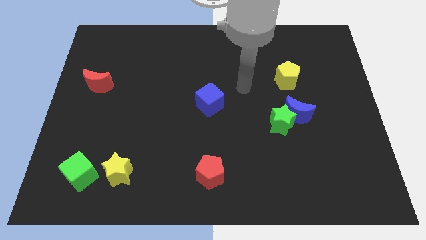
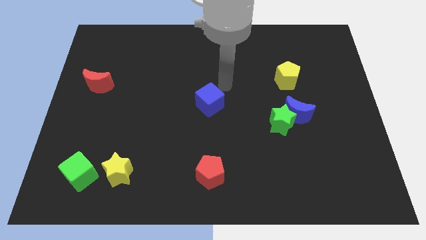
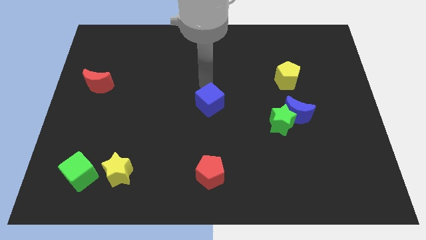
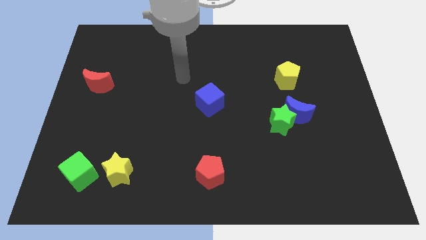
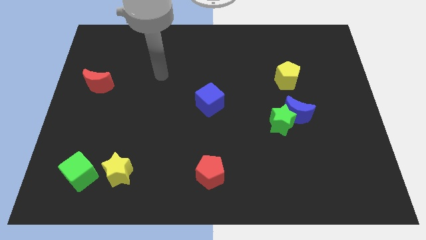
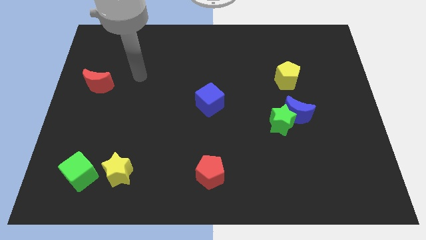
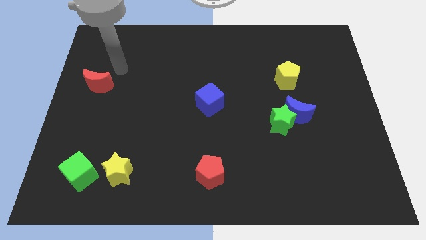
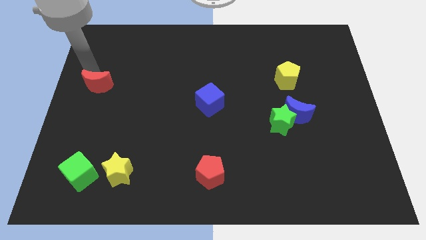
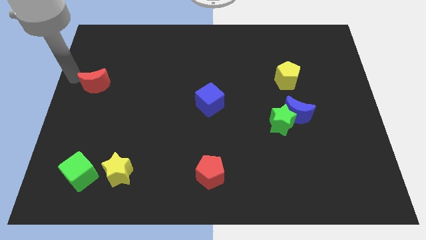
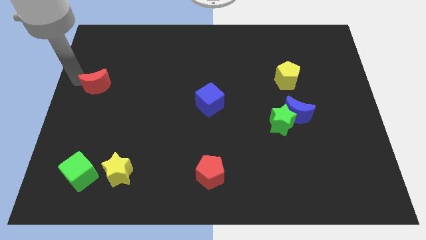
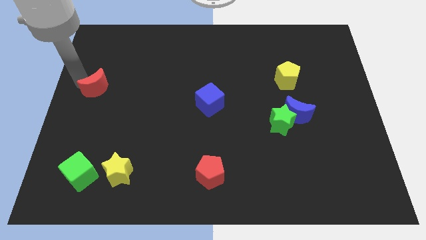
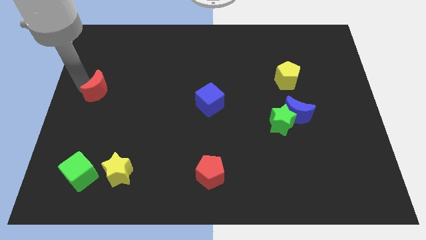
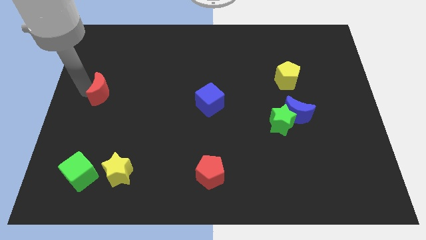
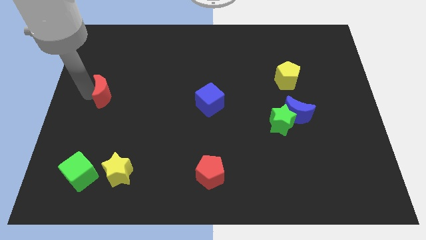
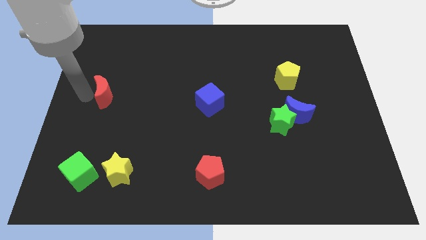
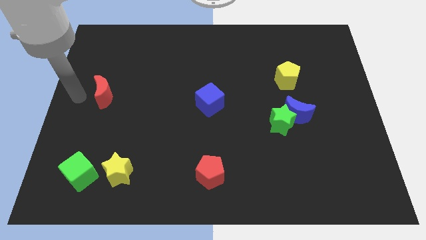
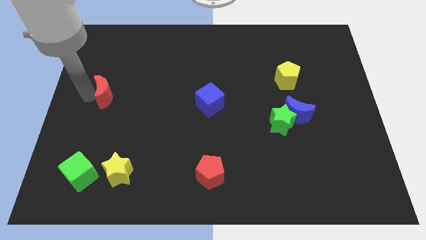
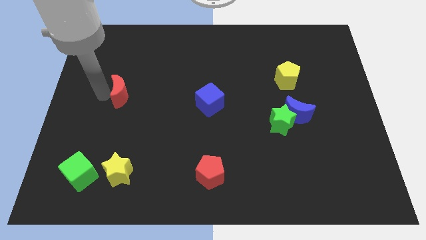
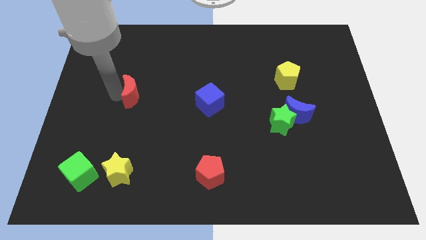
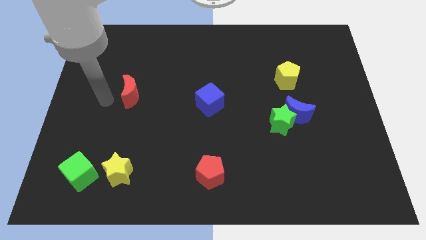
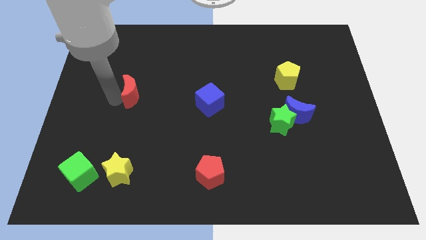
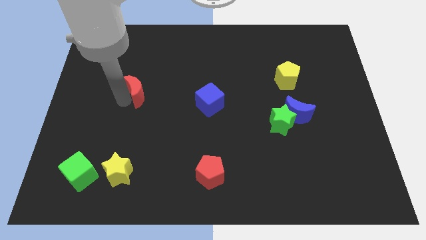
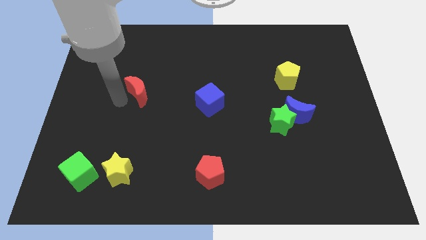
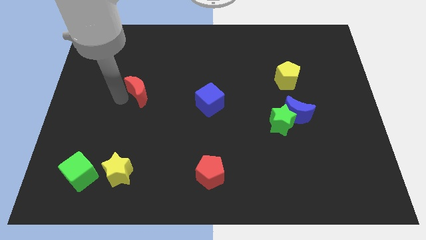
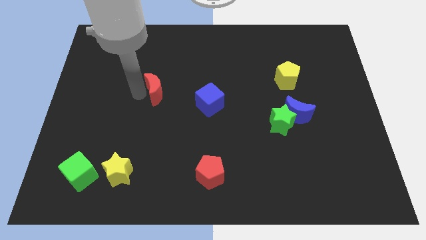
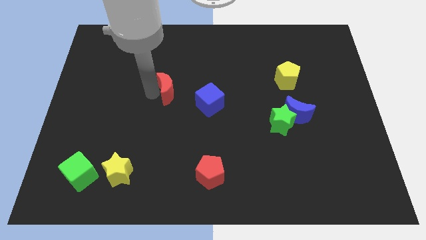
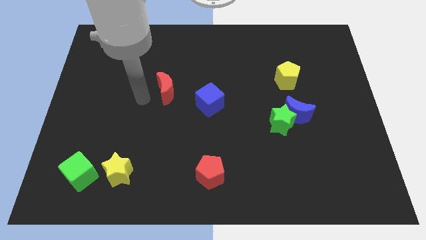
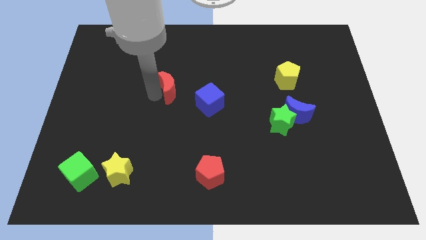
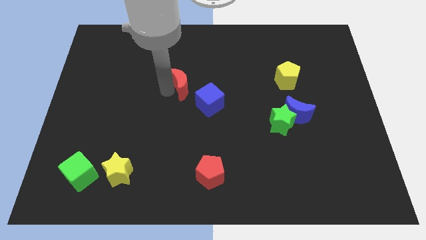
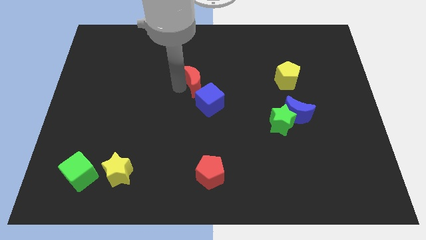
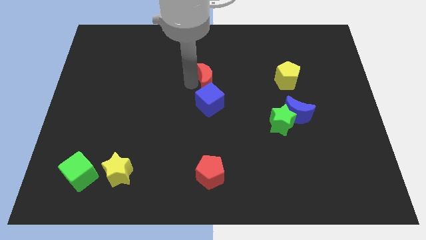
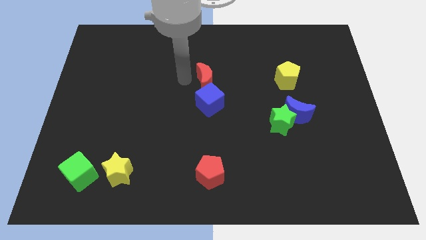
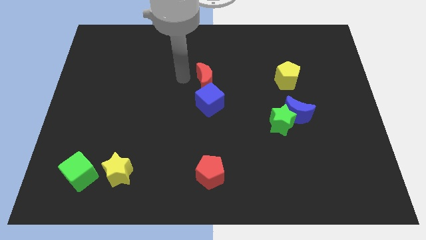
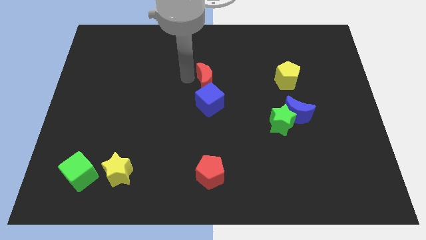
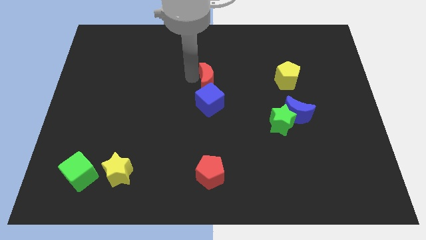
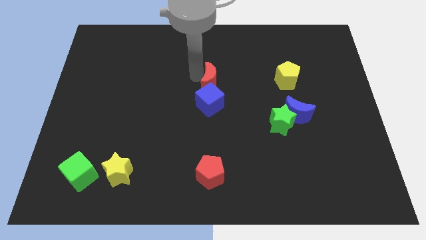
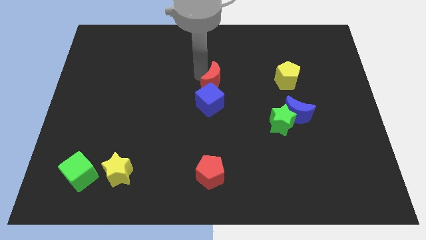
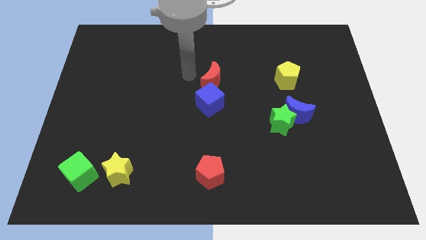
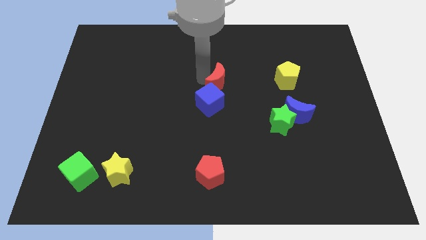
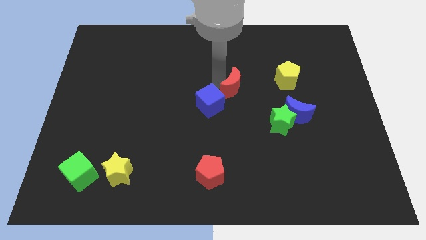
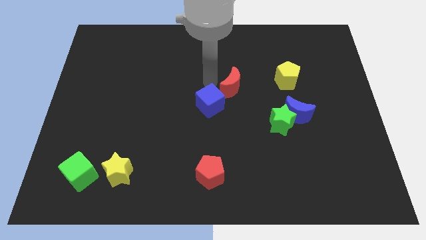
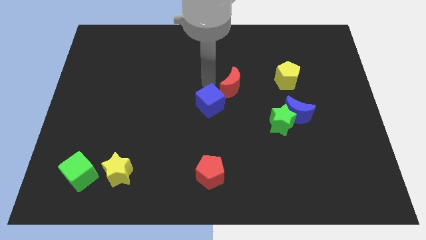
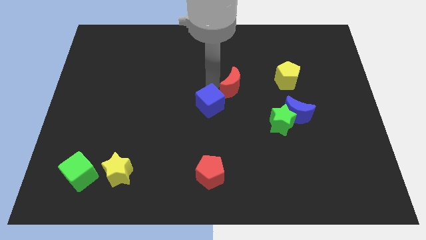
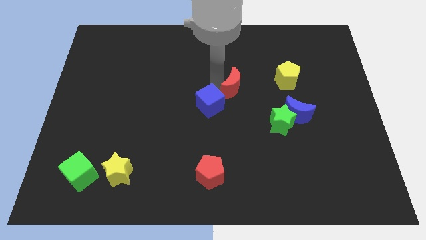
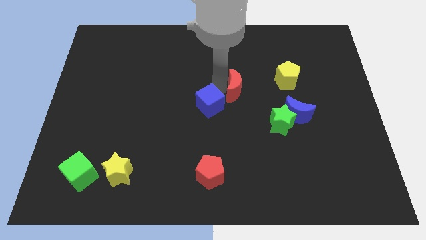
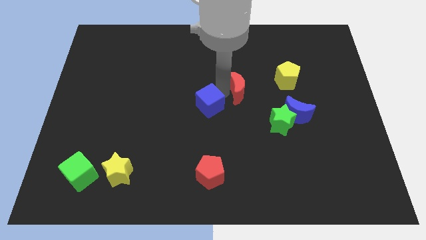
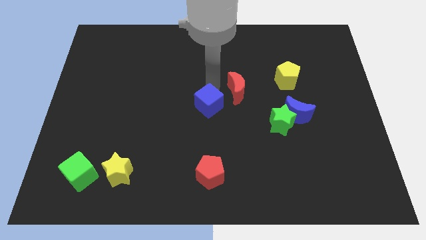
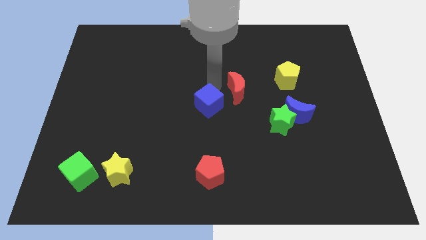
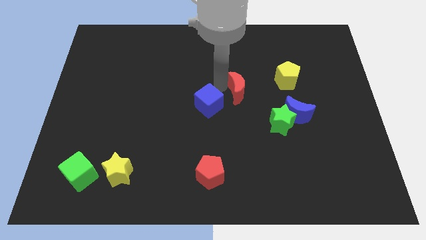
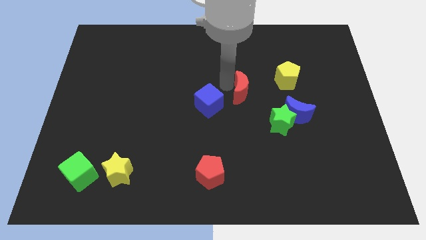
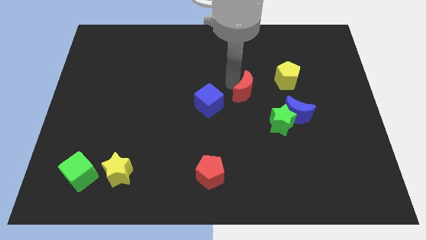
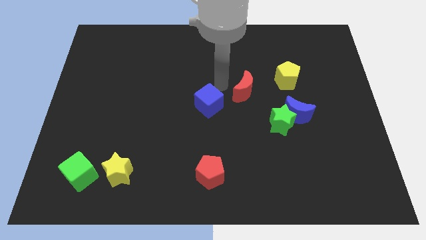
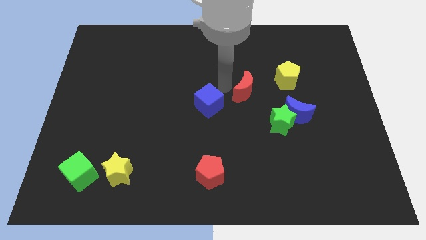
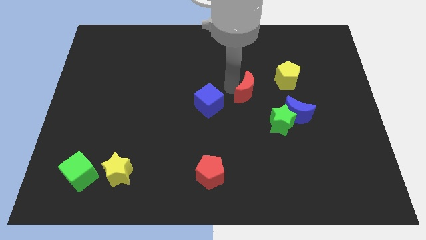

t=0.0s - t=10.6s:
put the red moon to the bottom left of the yellow pentagon

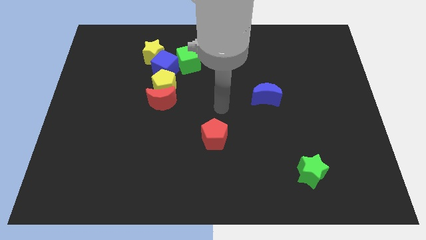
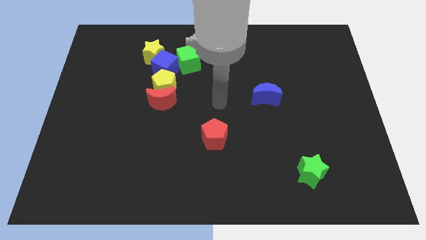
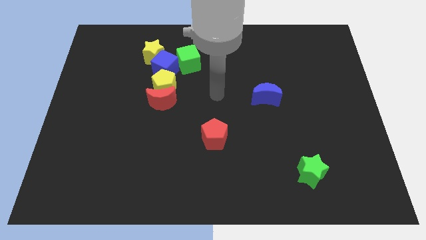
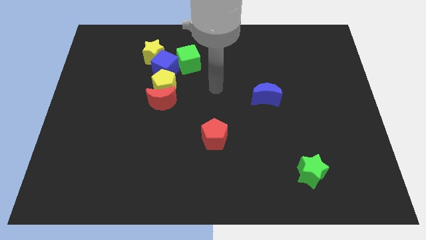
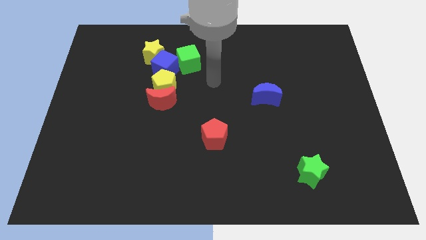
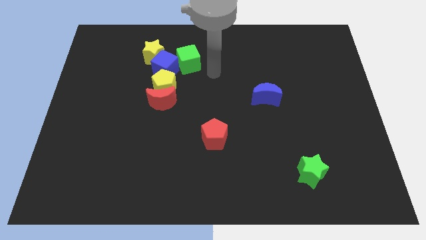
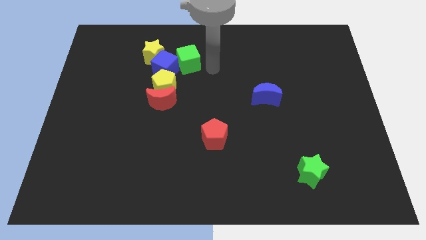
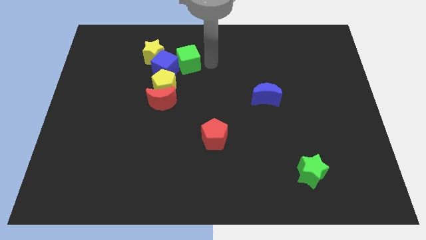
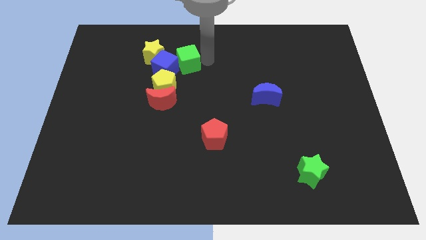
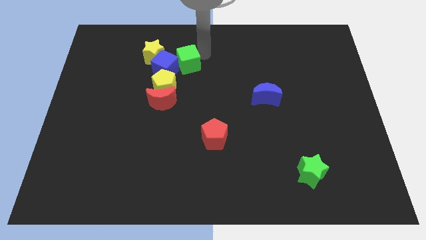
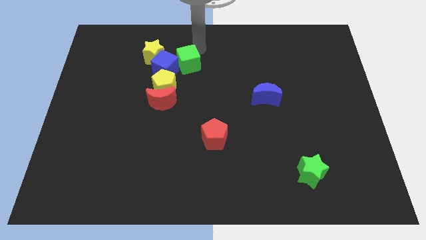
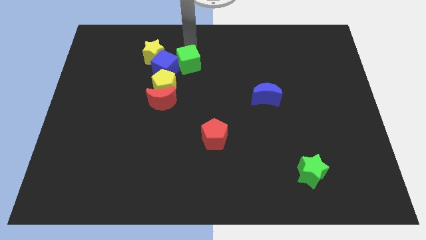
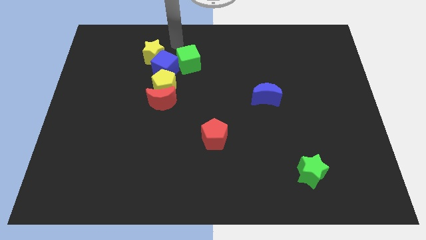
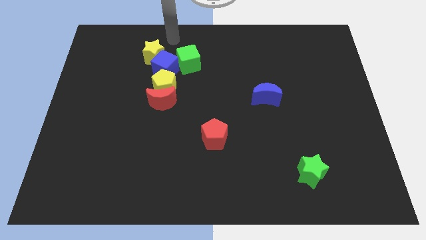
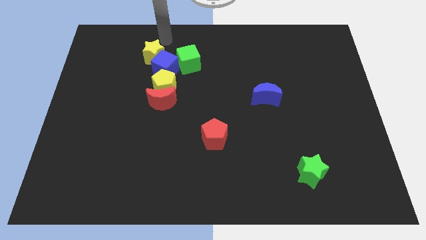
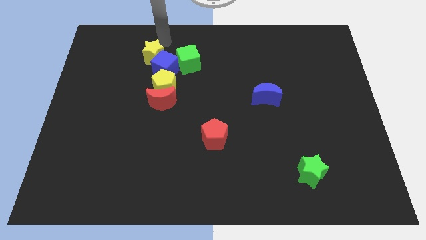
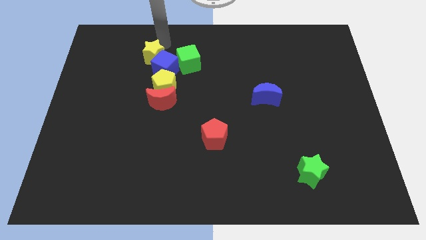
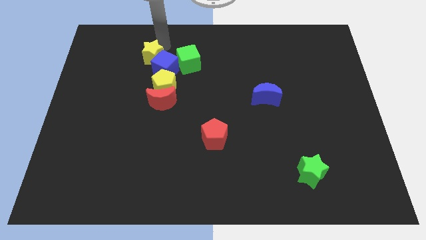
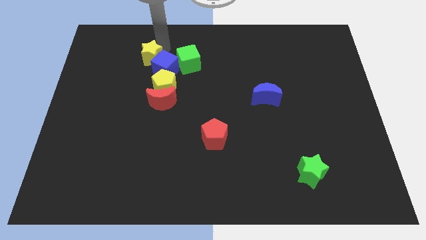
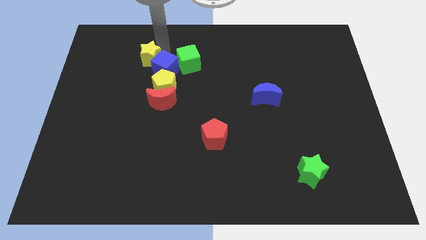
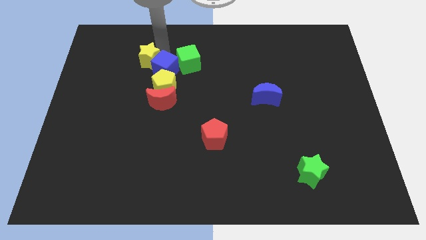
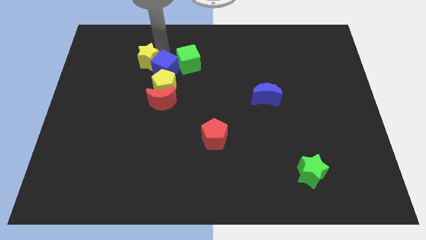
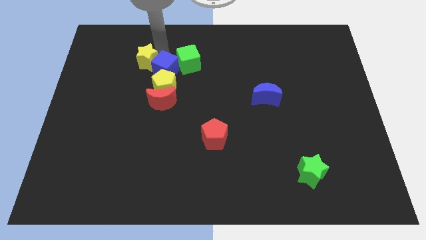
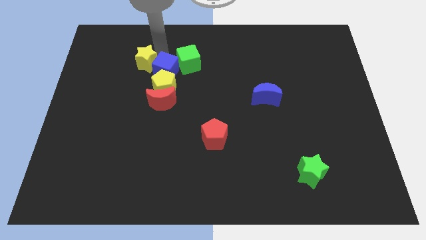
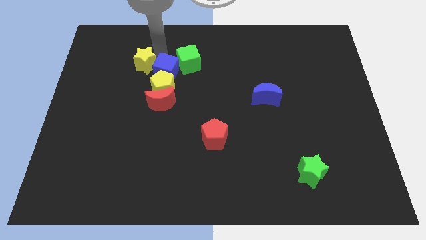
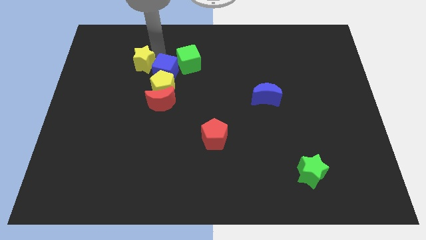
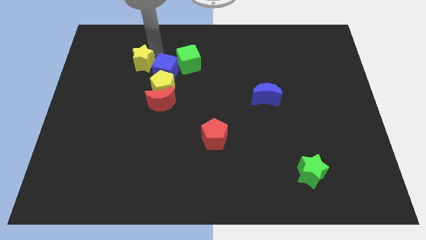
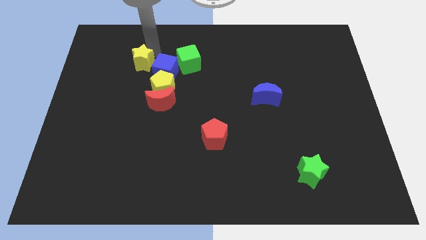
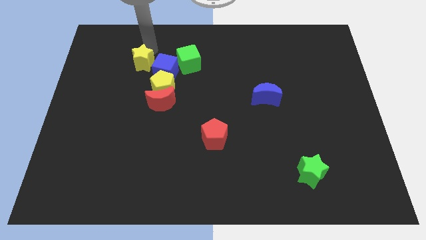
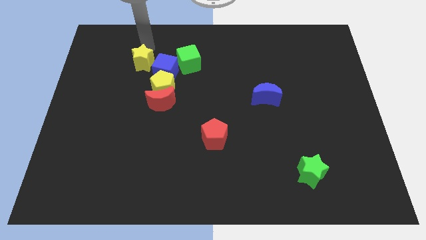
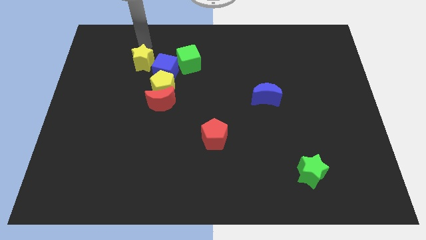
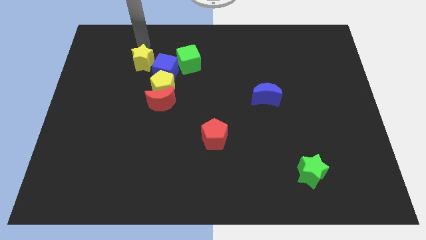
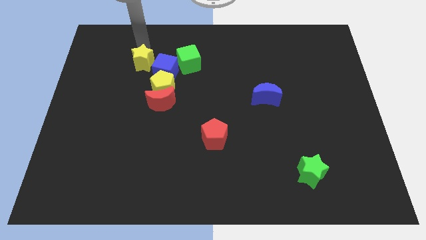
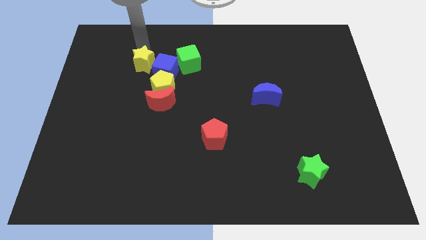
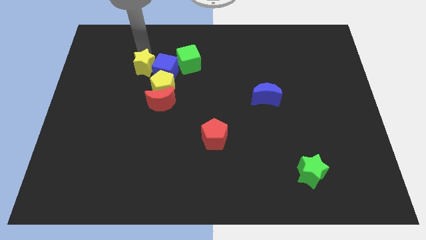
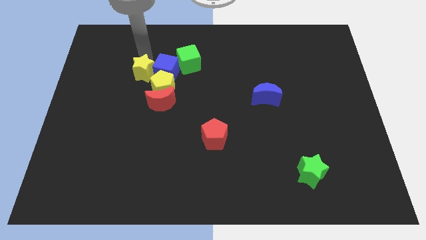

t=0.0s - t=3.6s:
slide the yellow star diagonally down and to the left of the blue cube
